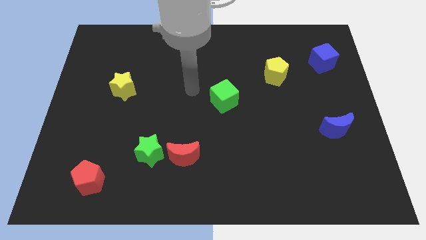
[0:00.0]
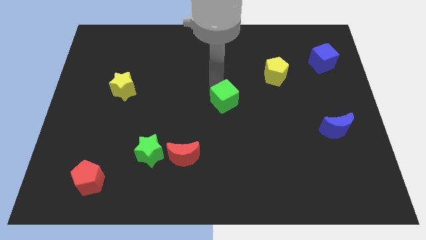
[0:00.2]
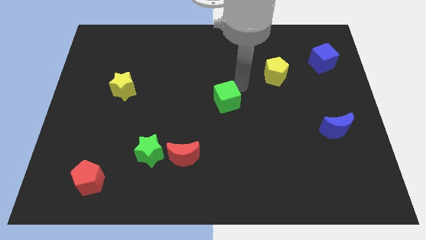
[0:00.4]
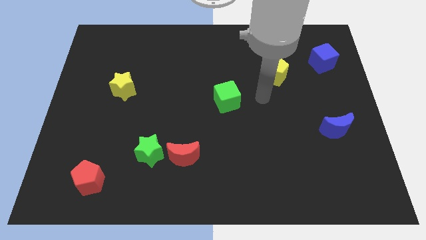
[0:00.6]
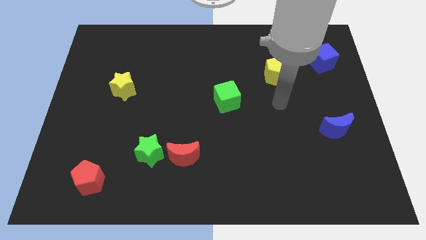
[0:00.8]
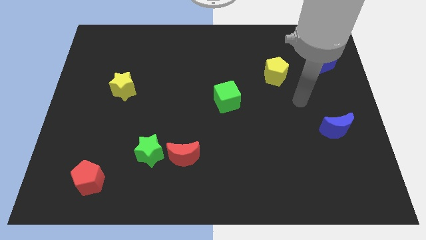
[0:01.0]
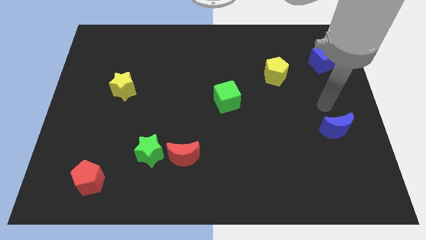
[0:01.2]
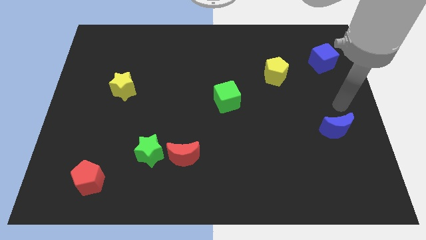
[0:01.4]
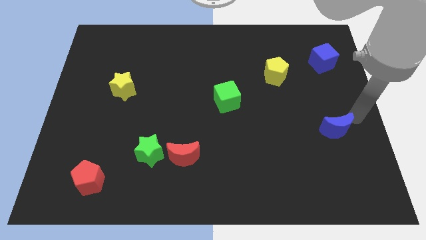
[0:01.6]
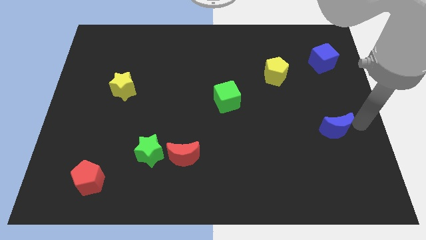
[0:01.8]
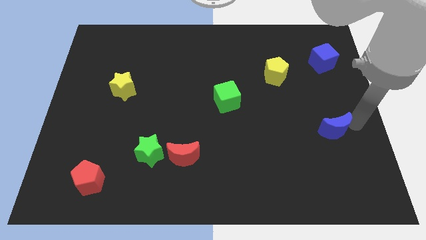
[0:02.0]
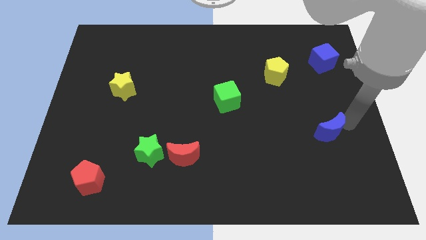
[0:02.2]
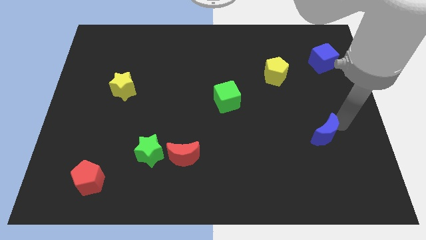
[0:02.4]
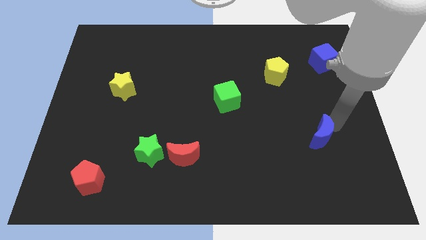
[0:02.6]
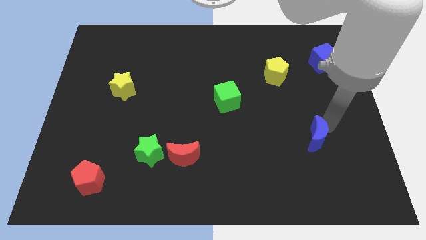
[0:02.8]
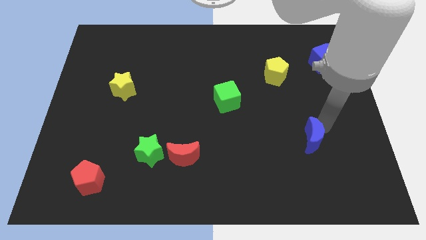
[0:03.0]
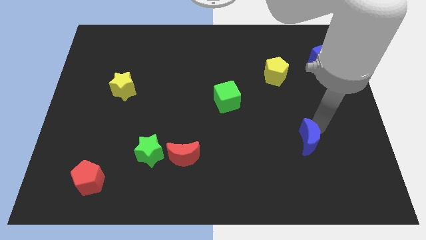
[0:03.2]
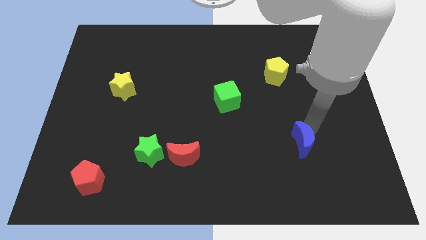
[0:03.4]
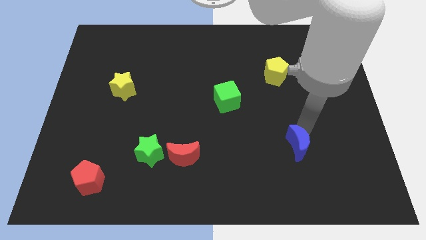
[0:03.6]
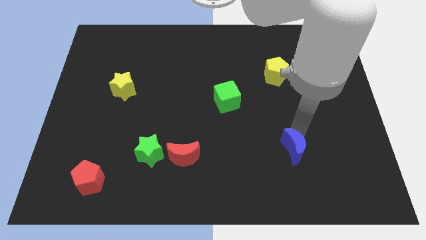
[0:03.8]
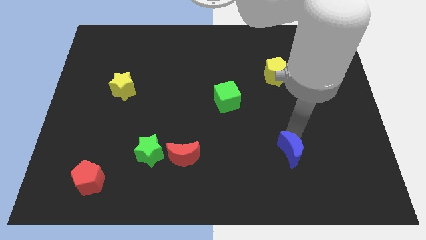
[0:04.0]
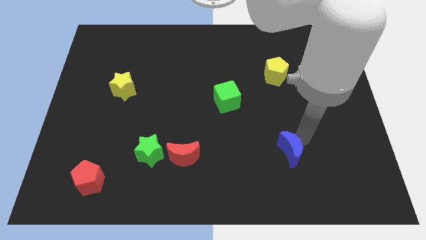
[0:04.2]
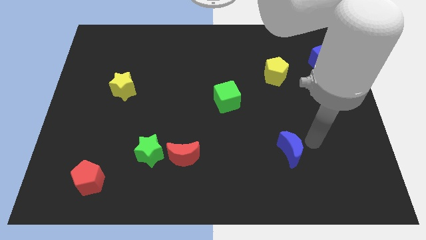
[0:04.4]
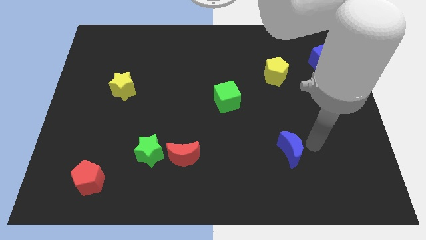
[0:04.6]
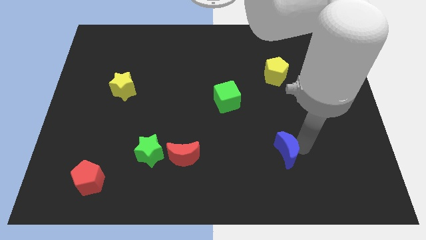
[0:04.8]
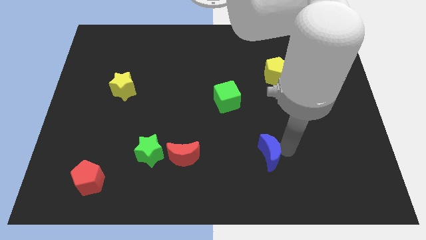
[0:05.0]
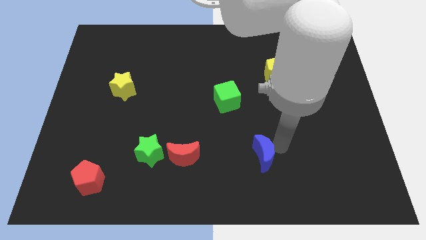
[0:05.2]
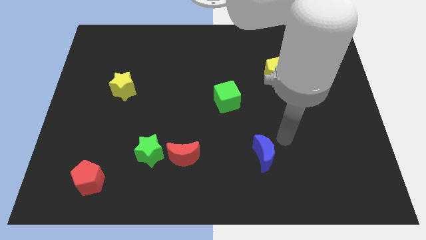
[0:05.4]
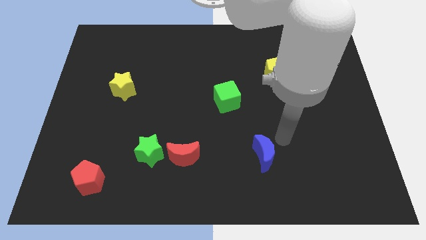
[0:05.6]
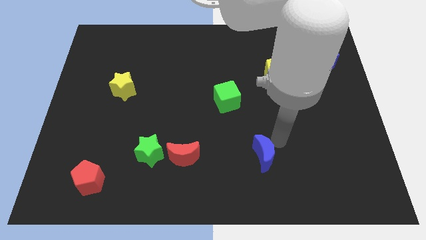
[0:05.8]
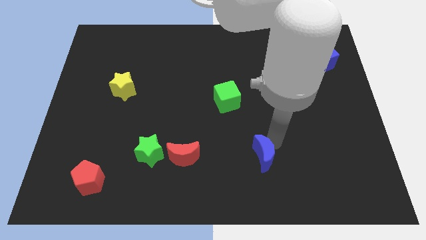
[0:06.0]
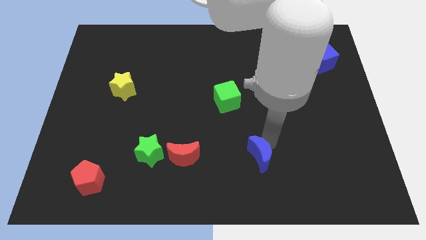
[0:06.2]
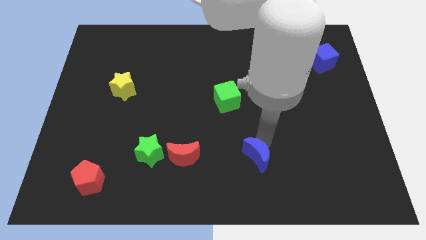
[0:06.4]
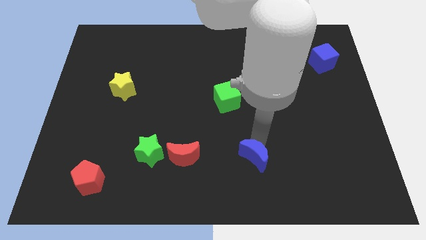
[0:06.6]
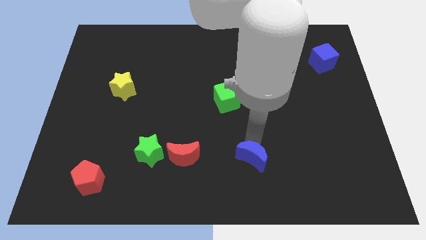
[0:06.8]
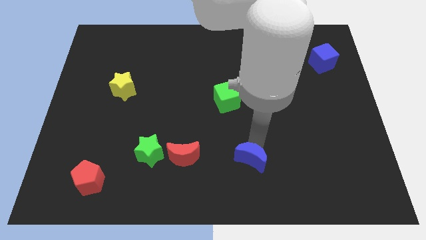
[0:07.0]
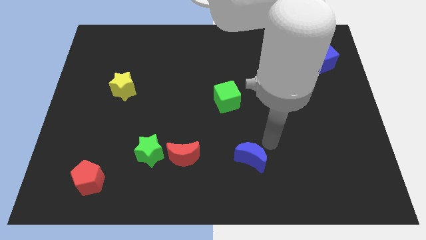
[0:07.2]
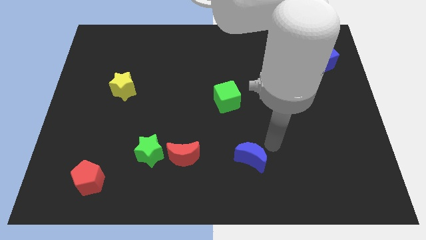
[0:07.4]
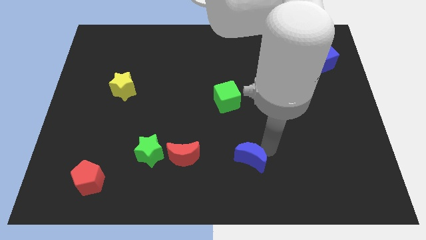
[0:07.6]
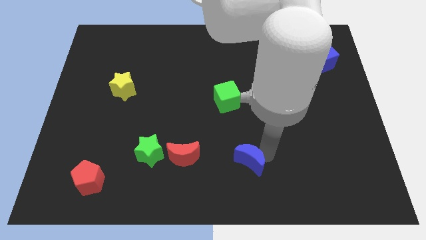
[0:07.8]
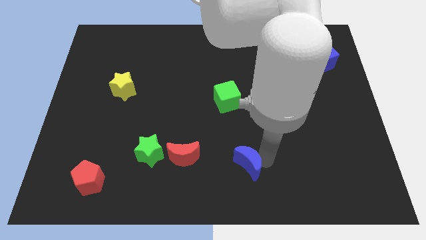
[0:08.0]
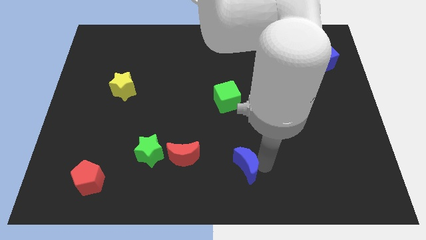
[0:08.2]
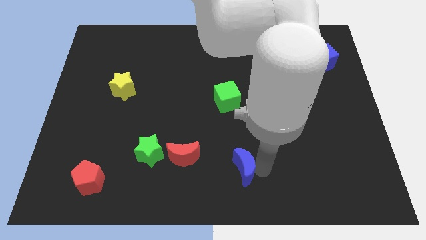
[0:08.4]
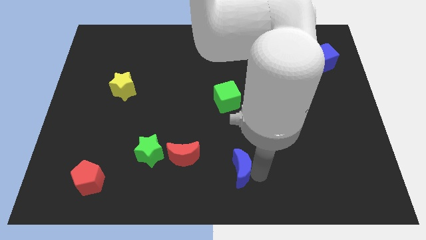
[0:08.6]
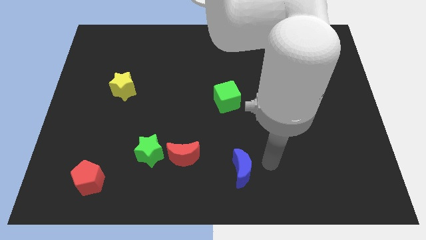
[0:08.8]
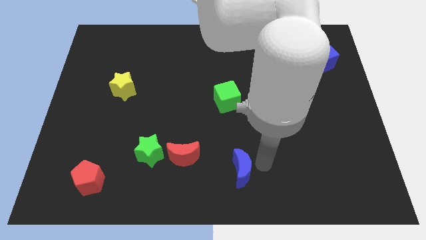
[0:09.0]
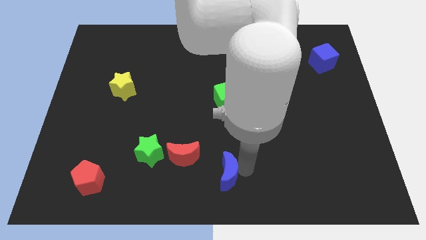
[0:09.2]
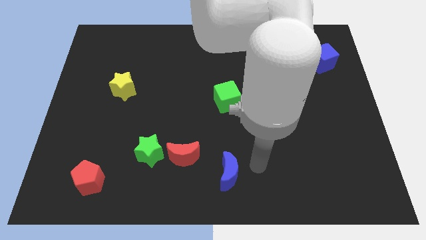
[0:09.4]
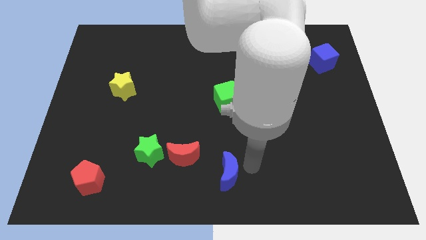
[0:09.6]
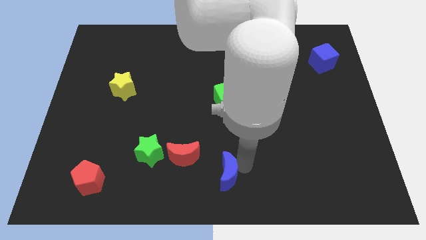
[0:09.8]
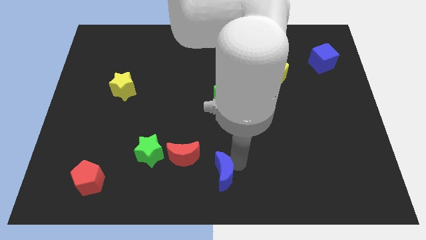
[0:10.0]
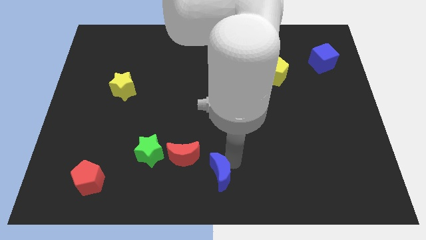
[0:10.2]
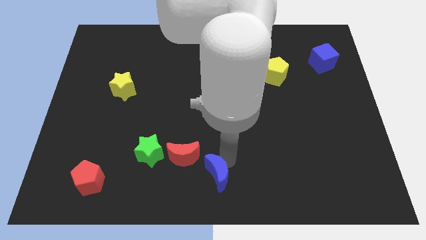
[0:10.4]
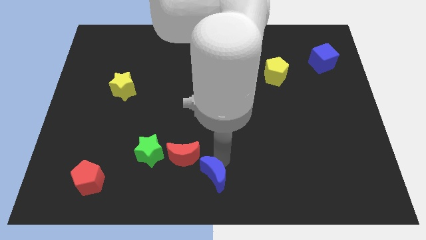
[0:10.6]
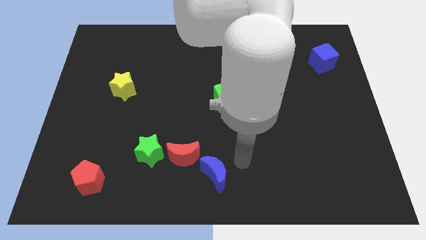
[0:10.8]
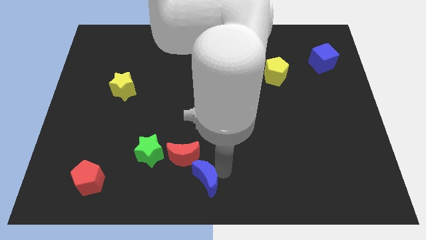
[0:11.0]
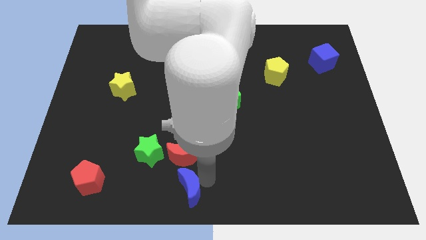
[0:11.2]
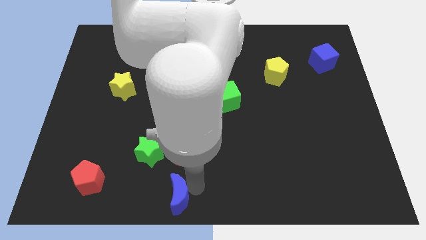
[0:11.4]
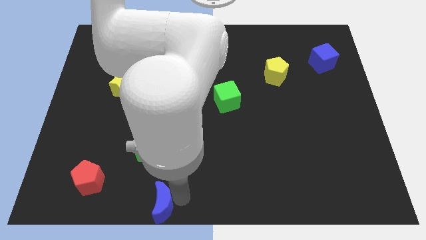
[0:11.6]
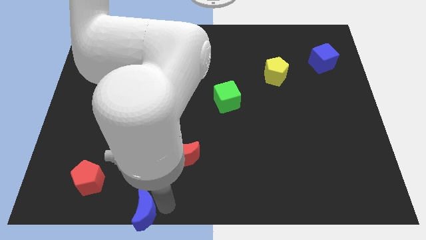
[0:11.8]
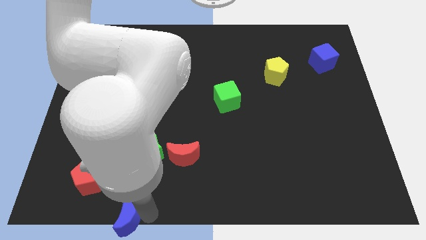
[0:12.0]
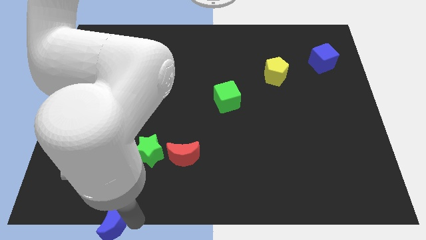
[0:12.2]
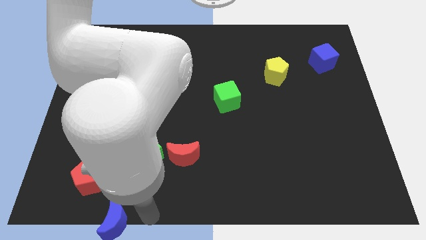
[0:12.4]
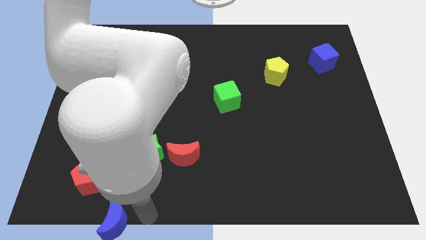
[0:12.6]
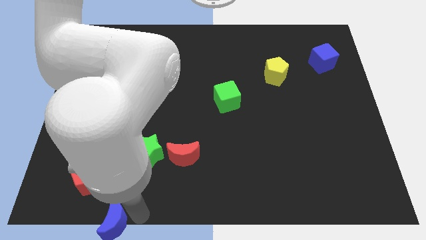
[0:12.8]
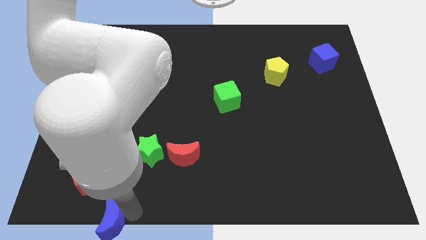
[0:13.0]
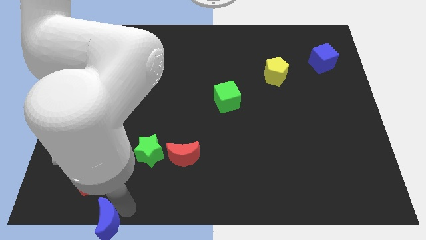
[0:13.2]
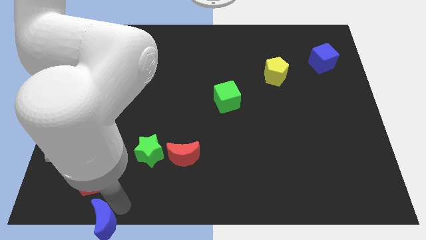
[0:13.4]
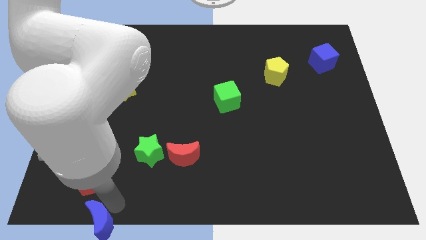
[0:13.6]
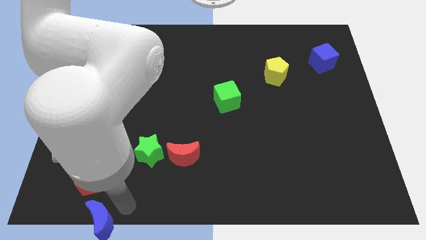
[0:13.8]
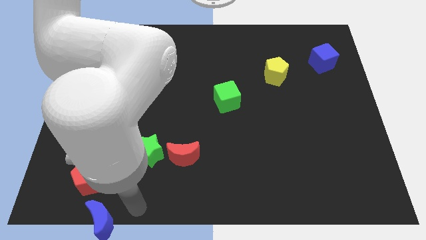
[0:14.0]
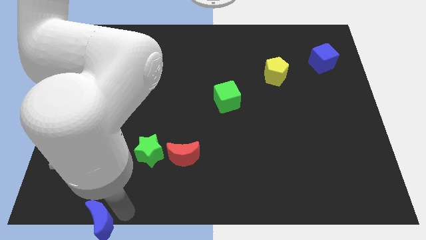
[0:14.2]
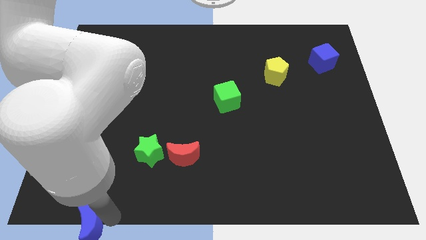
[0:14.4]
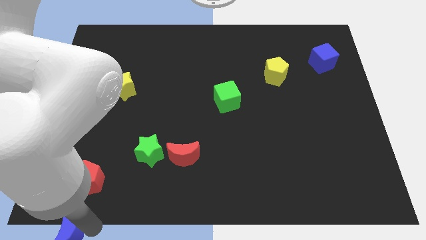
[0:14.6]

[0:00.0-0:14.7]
move the blue moon to the lower left corner

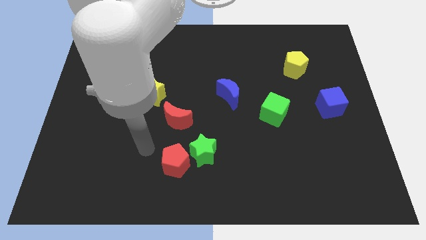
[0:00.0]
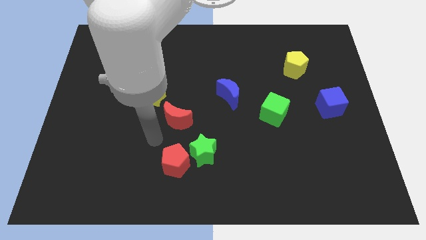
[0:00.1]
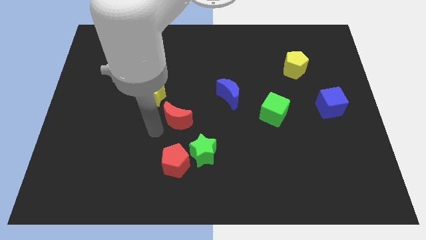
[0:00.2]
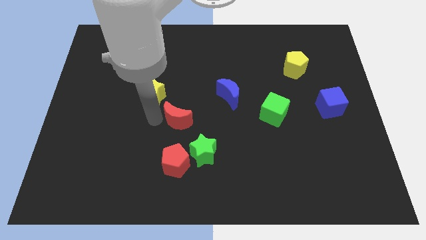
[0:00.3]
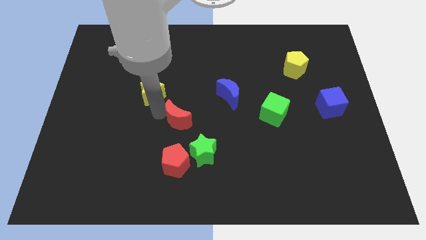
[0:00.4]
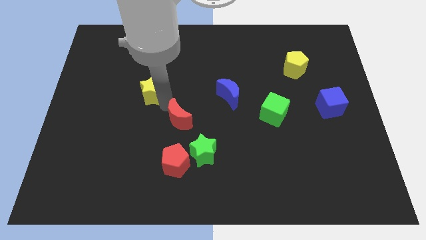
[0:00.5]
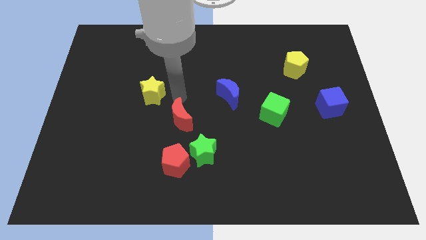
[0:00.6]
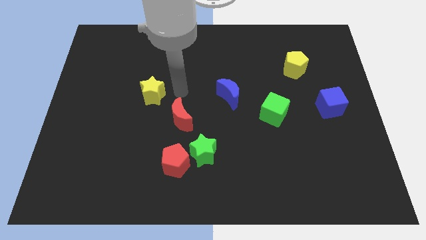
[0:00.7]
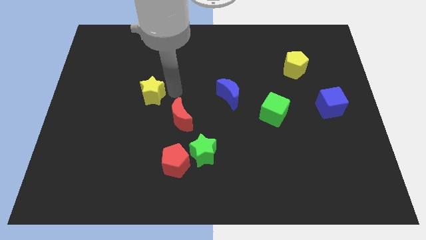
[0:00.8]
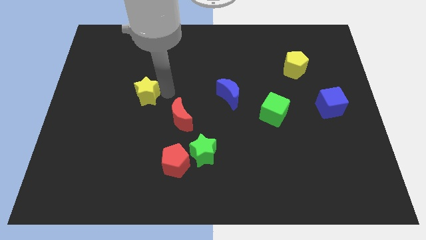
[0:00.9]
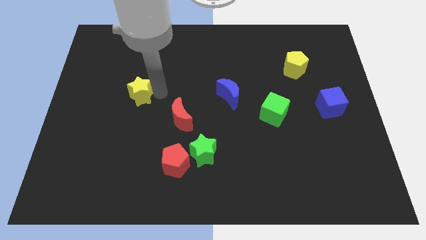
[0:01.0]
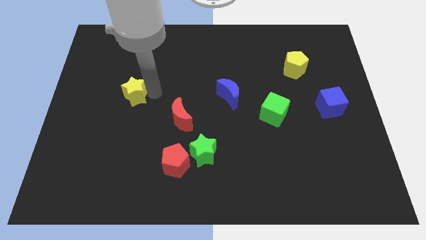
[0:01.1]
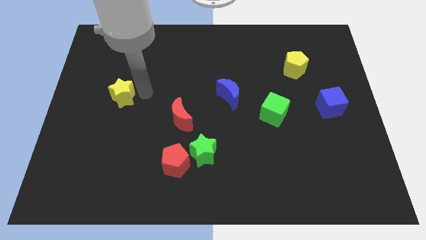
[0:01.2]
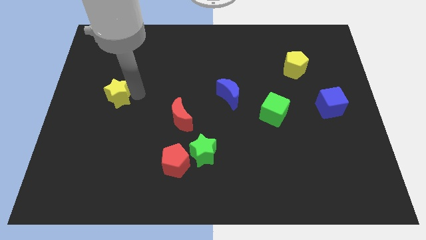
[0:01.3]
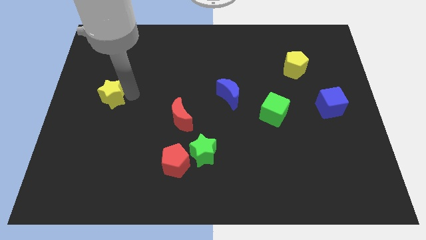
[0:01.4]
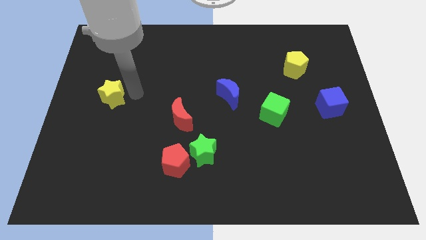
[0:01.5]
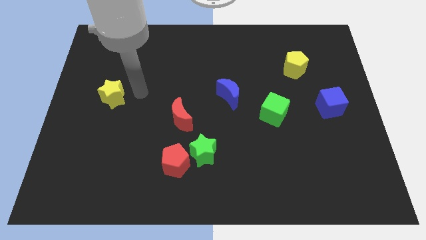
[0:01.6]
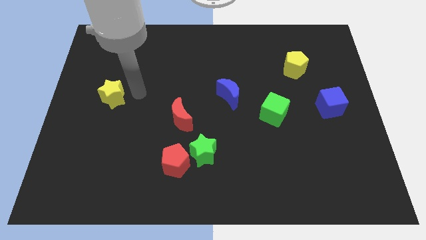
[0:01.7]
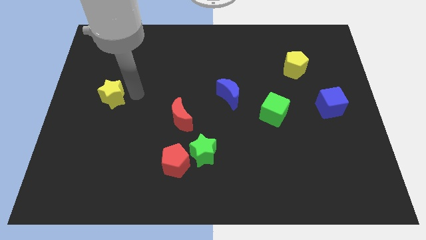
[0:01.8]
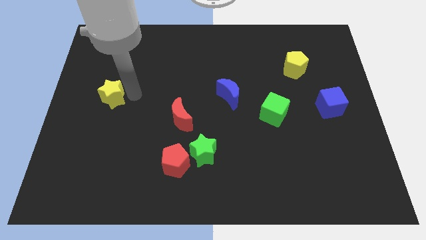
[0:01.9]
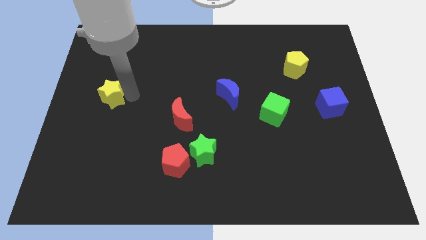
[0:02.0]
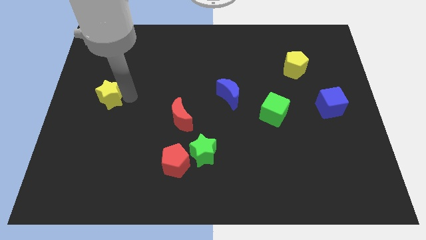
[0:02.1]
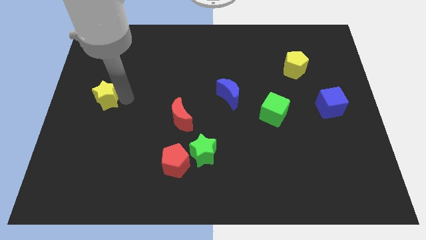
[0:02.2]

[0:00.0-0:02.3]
move the yellow star to the left side
